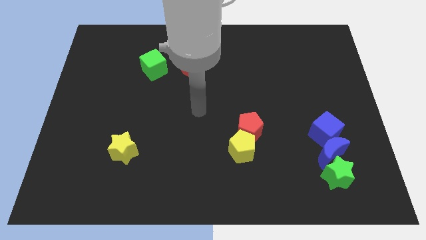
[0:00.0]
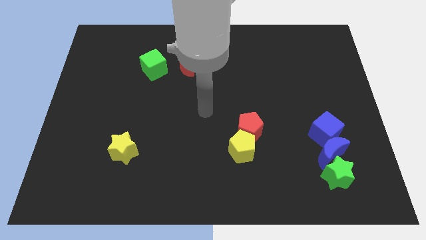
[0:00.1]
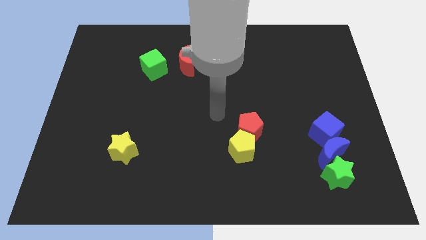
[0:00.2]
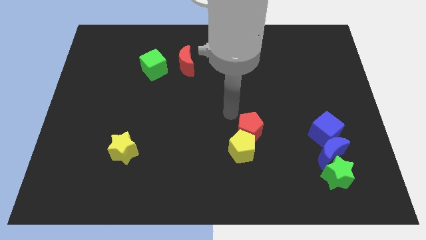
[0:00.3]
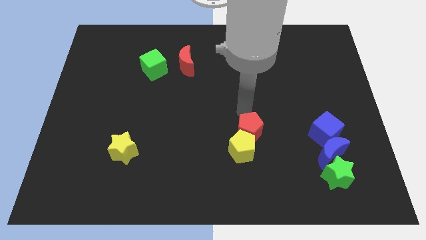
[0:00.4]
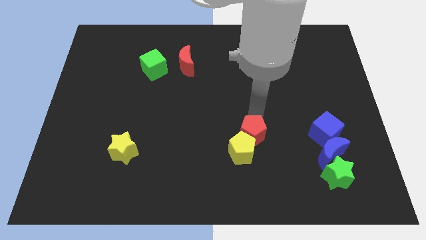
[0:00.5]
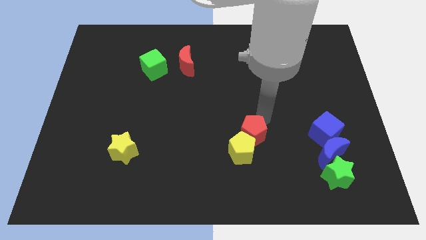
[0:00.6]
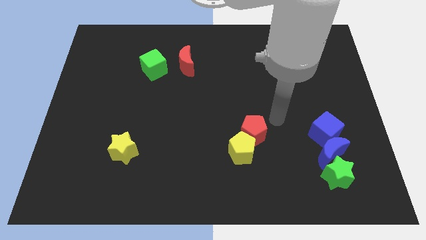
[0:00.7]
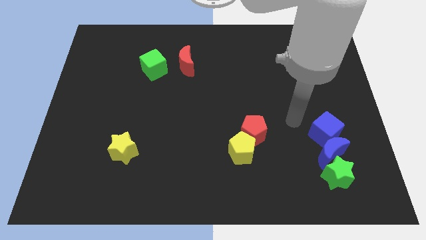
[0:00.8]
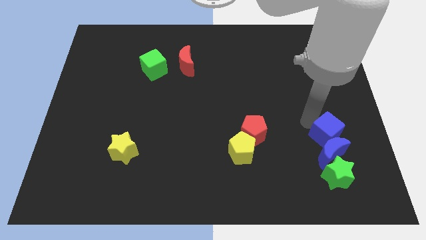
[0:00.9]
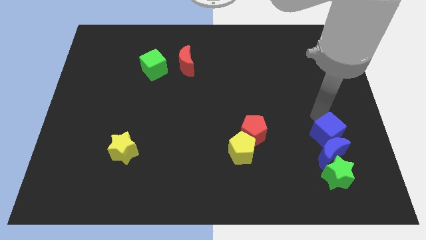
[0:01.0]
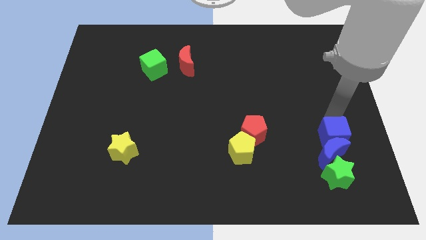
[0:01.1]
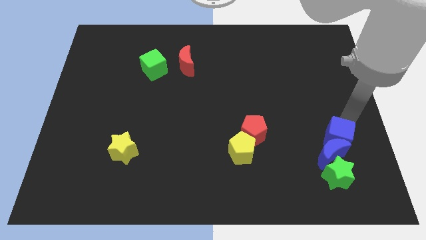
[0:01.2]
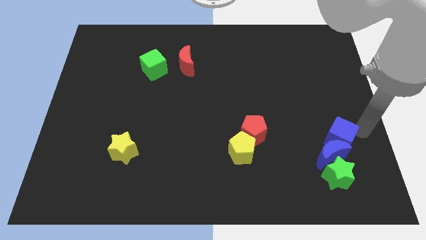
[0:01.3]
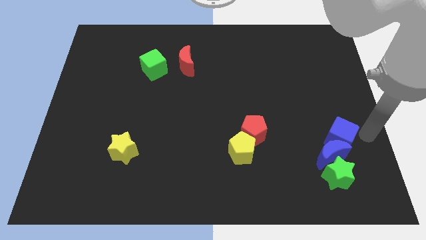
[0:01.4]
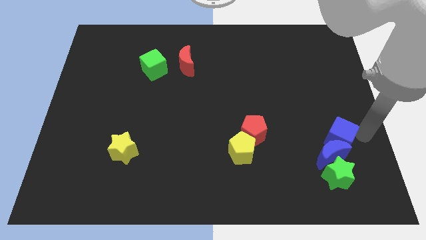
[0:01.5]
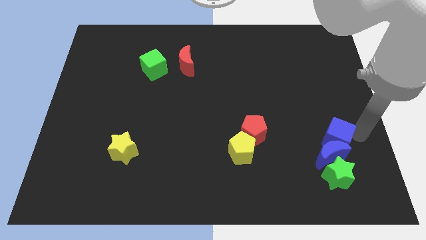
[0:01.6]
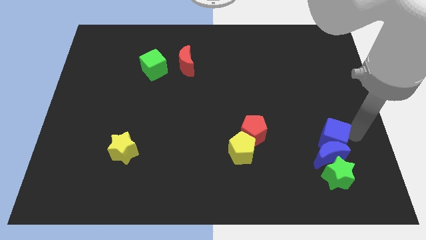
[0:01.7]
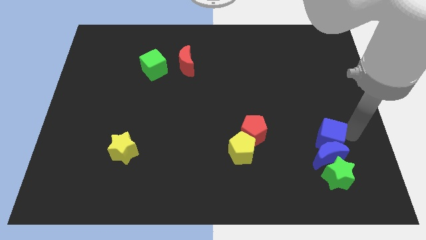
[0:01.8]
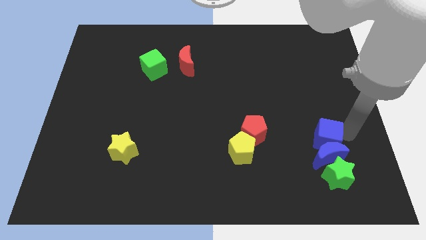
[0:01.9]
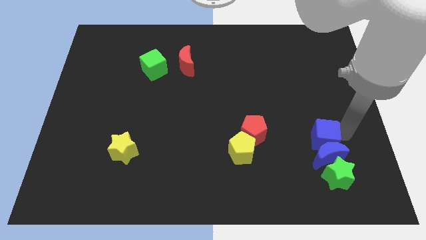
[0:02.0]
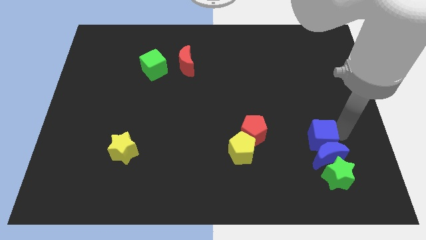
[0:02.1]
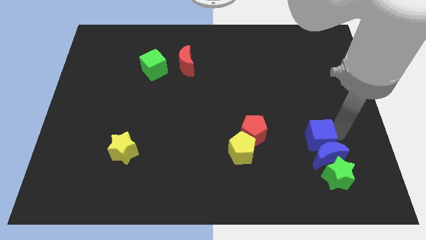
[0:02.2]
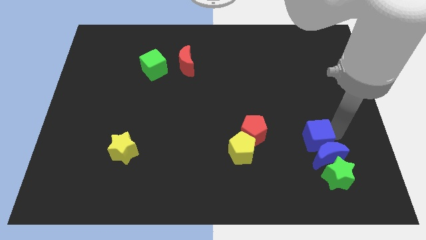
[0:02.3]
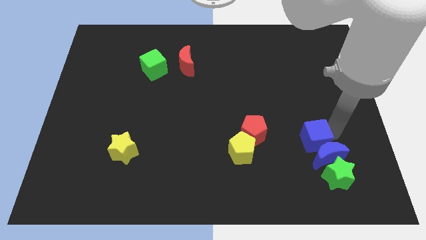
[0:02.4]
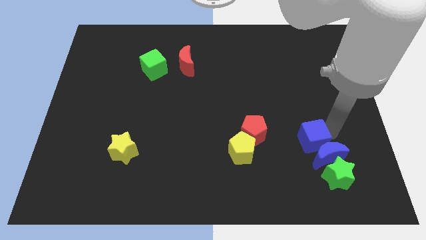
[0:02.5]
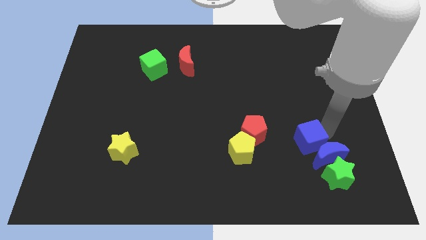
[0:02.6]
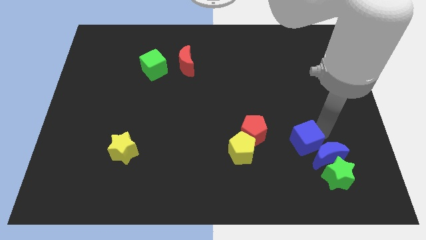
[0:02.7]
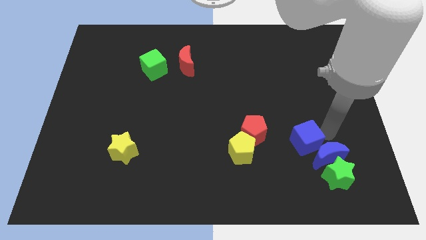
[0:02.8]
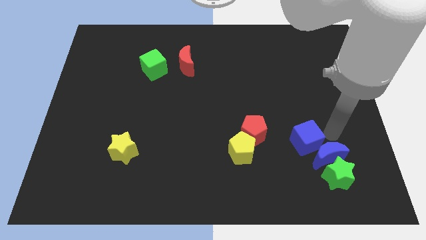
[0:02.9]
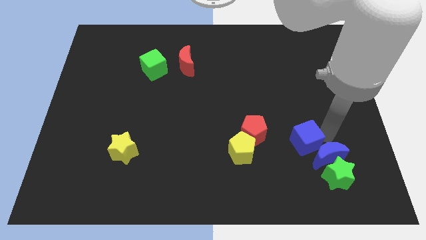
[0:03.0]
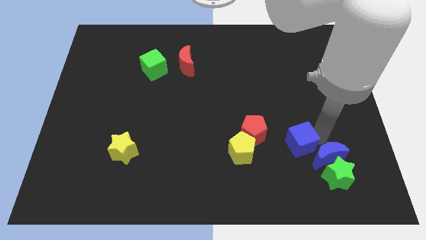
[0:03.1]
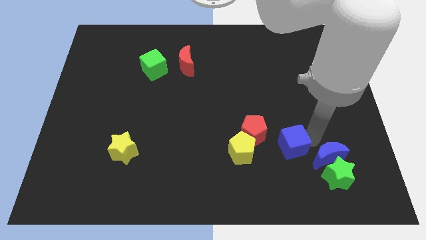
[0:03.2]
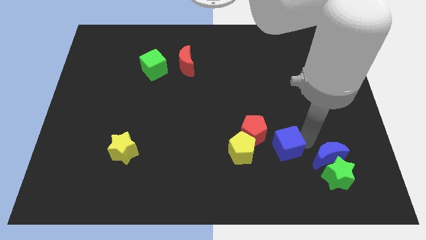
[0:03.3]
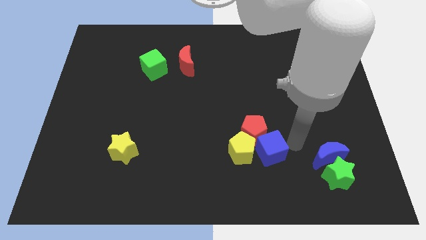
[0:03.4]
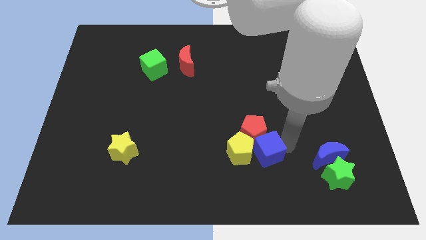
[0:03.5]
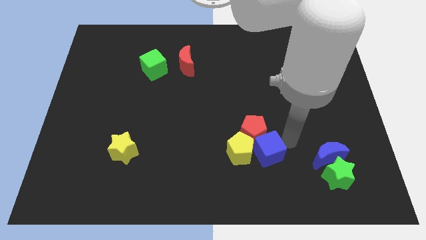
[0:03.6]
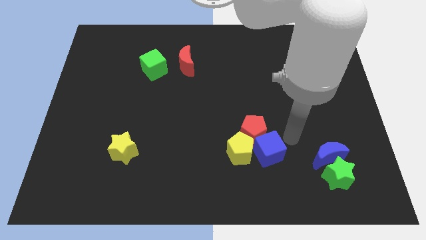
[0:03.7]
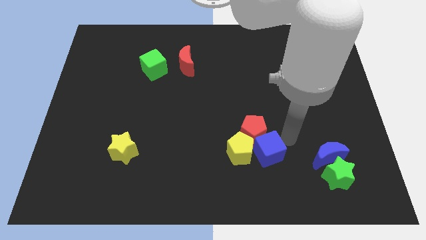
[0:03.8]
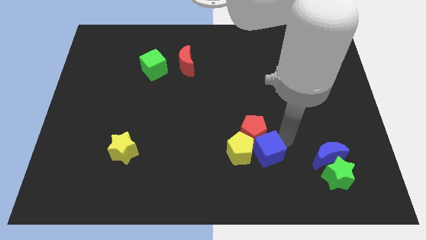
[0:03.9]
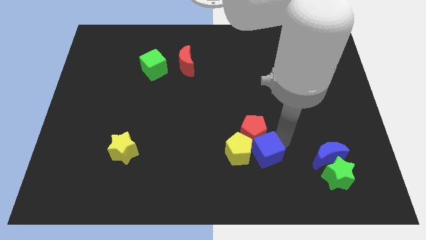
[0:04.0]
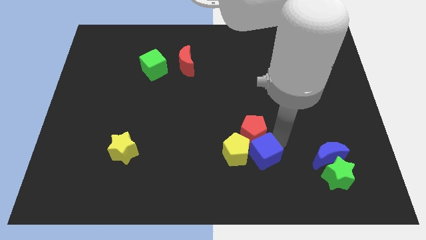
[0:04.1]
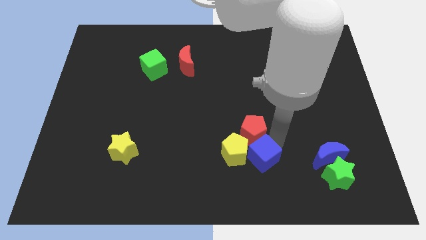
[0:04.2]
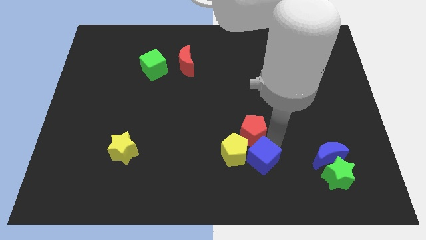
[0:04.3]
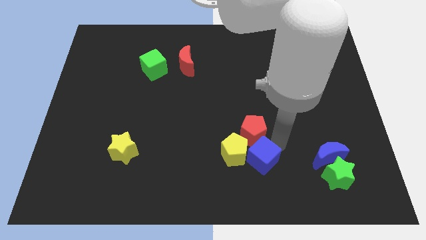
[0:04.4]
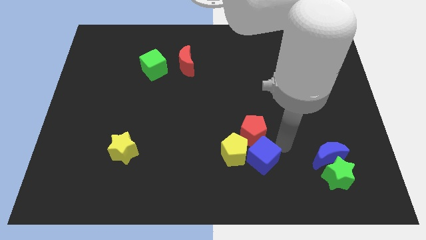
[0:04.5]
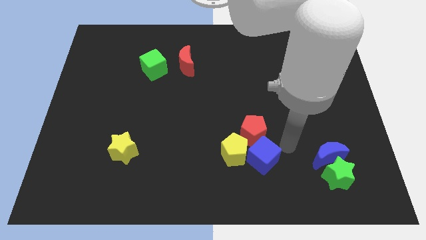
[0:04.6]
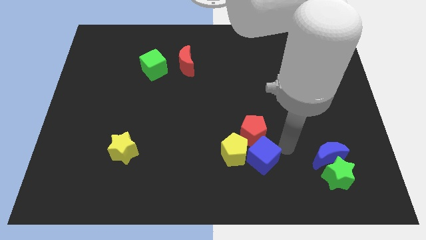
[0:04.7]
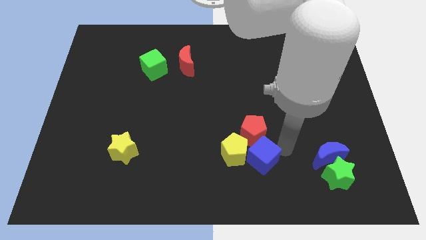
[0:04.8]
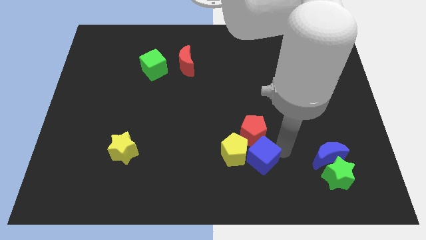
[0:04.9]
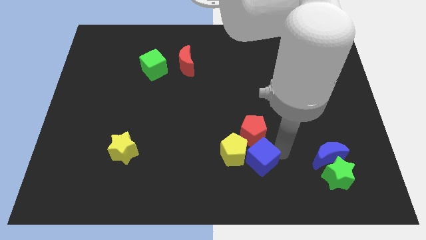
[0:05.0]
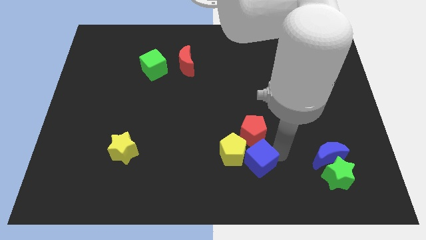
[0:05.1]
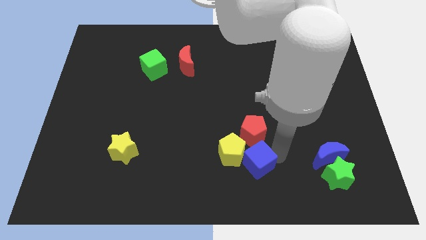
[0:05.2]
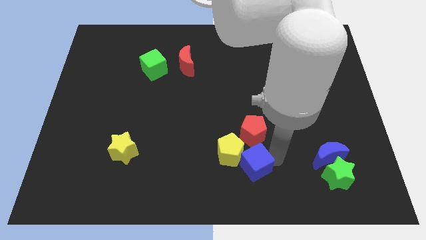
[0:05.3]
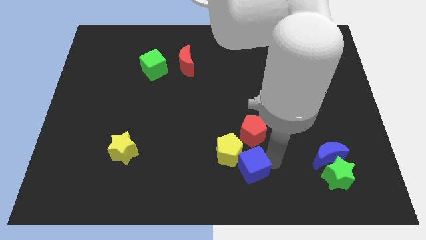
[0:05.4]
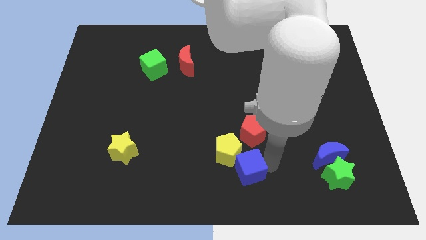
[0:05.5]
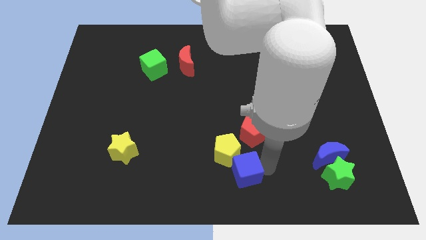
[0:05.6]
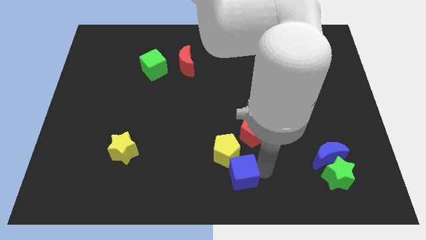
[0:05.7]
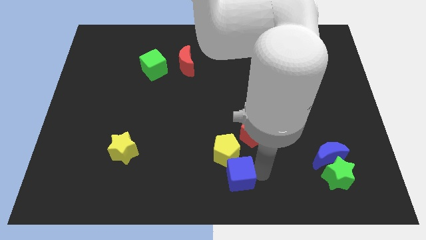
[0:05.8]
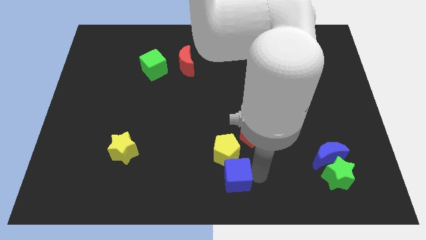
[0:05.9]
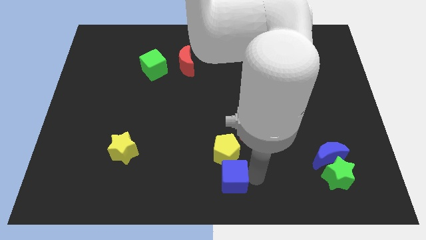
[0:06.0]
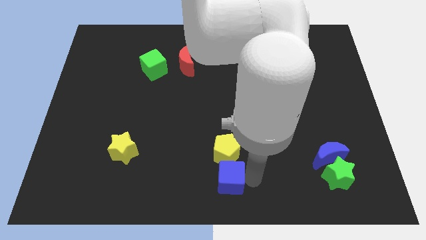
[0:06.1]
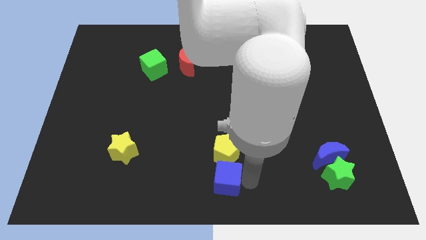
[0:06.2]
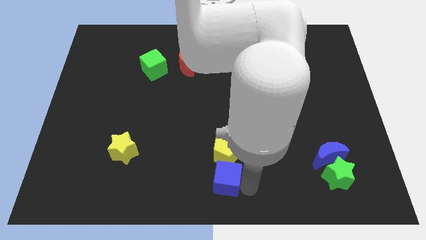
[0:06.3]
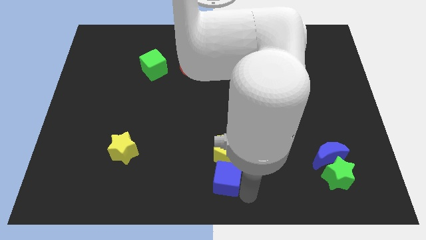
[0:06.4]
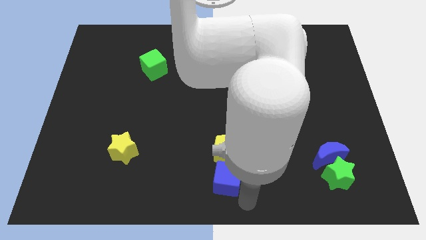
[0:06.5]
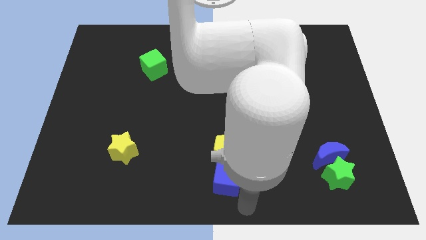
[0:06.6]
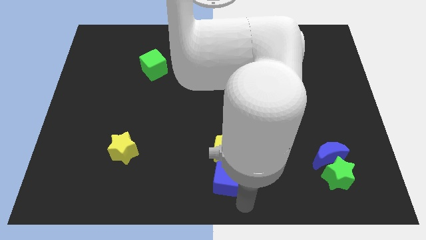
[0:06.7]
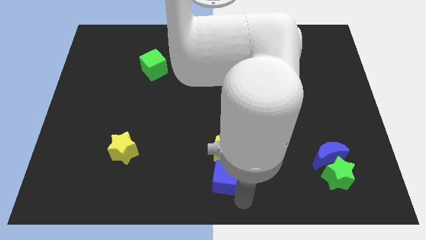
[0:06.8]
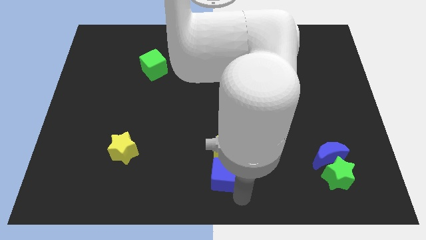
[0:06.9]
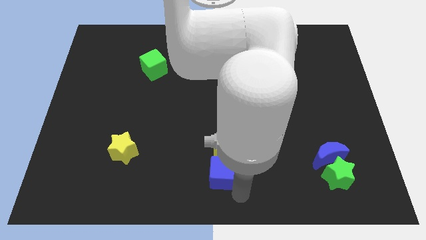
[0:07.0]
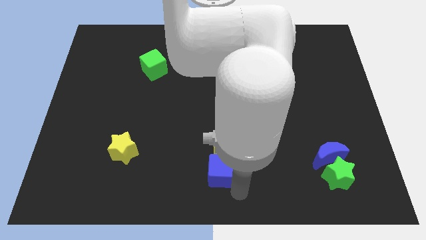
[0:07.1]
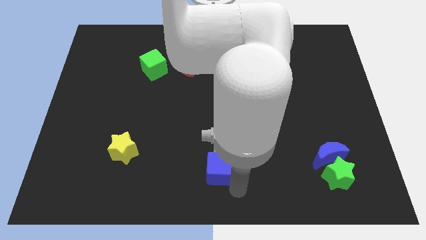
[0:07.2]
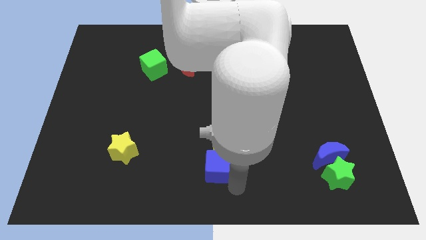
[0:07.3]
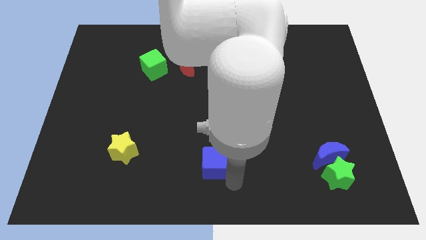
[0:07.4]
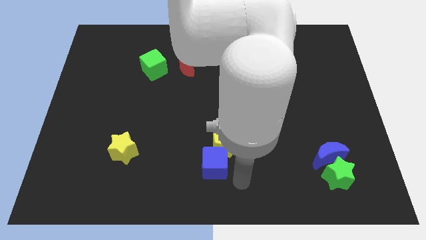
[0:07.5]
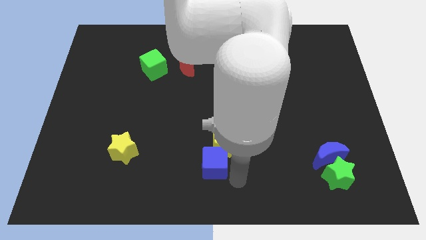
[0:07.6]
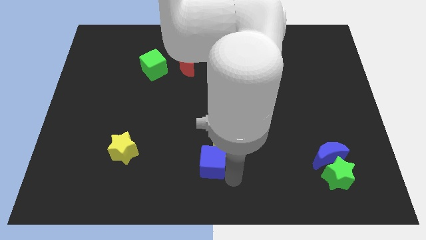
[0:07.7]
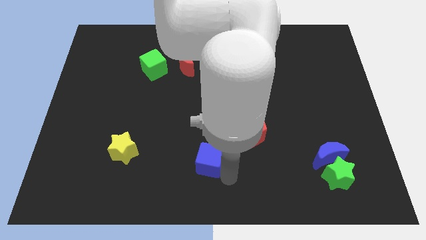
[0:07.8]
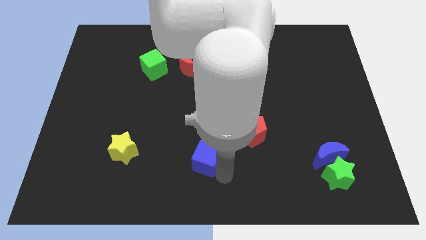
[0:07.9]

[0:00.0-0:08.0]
push the blue cube to the left side of the yellow pentagon
